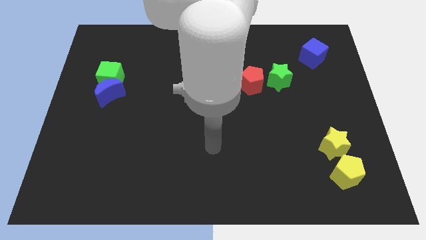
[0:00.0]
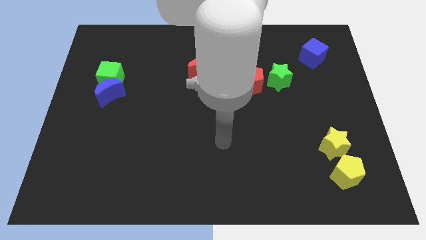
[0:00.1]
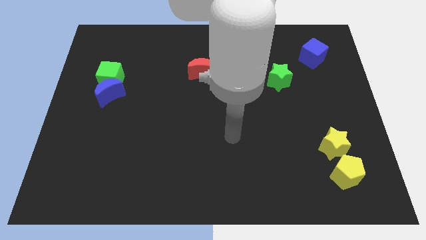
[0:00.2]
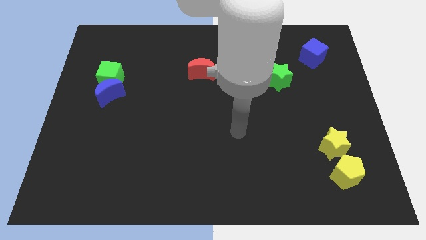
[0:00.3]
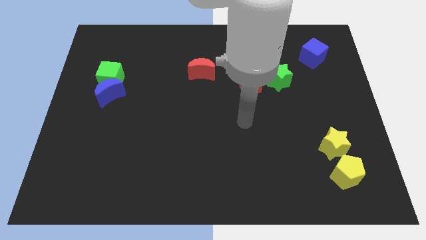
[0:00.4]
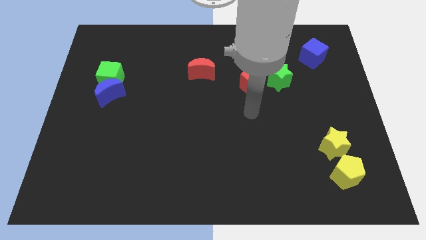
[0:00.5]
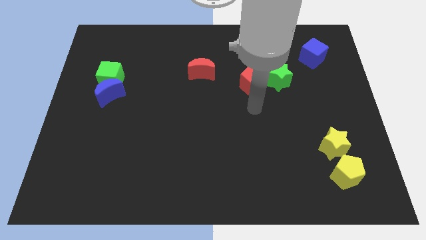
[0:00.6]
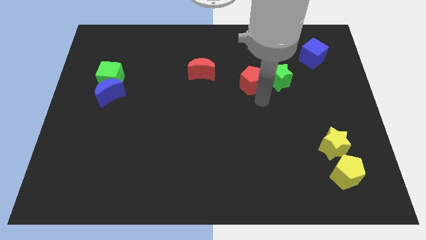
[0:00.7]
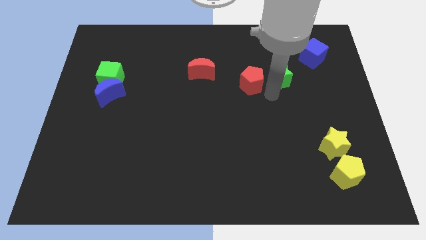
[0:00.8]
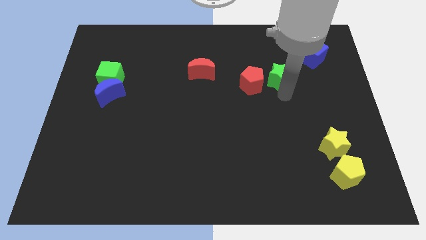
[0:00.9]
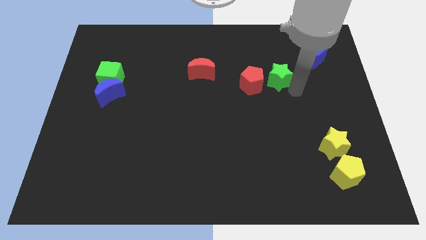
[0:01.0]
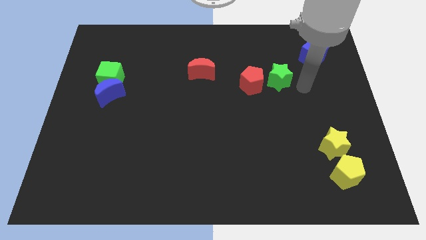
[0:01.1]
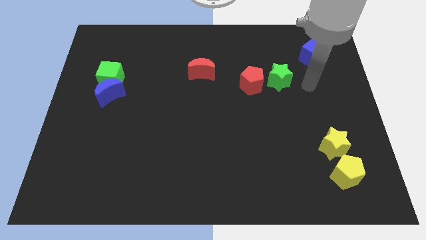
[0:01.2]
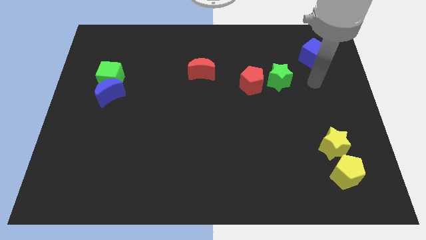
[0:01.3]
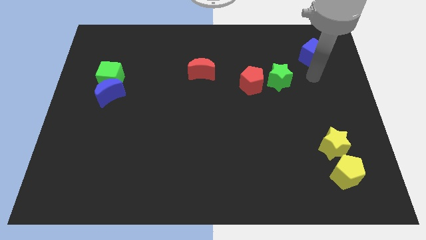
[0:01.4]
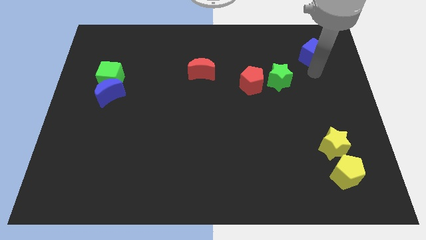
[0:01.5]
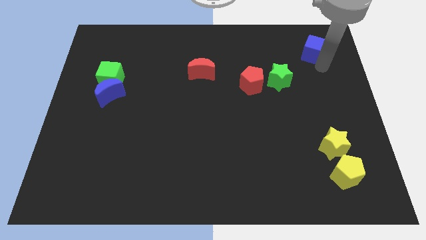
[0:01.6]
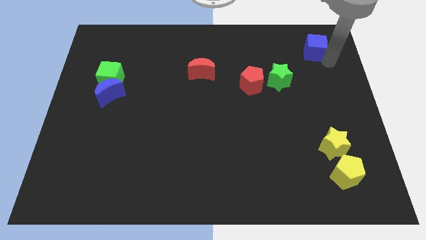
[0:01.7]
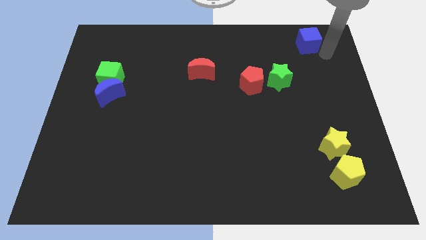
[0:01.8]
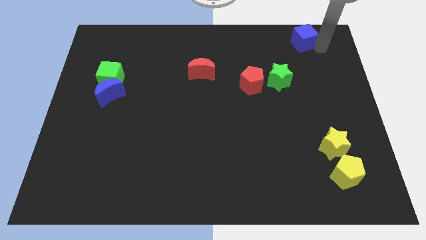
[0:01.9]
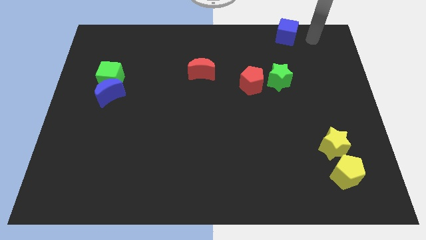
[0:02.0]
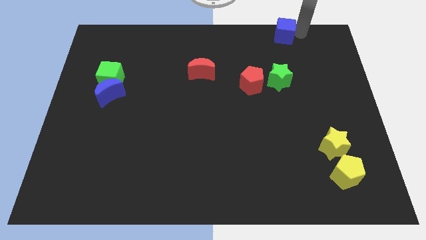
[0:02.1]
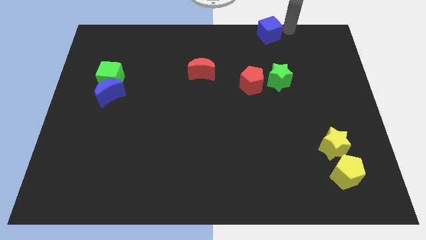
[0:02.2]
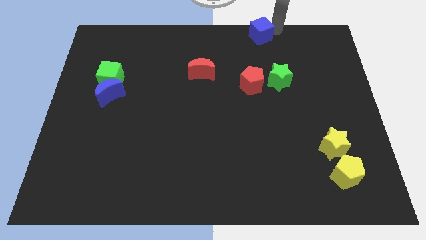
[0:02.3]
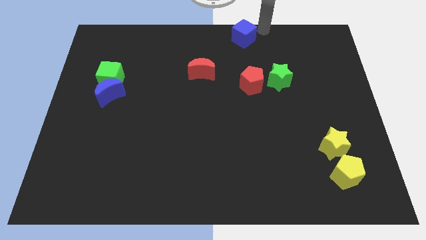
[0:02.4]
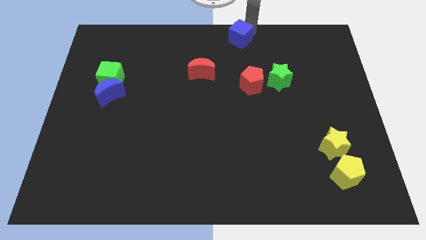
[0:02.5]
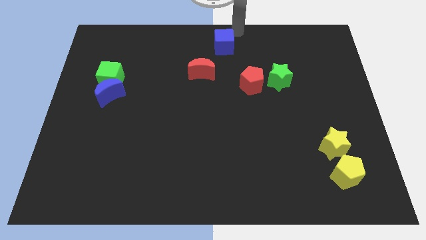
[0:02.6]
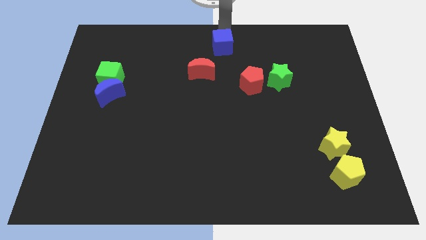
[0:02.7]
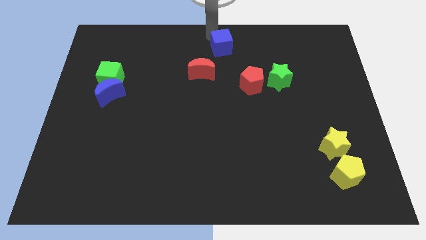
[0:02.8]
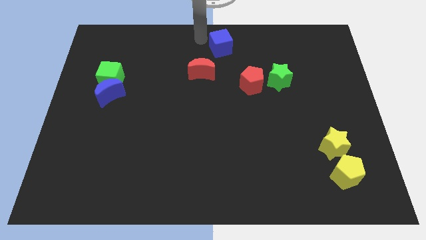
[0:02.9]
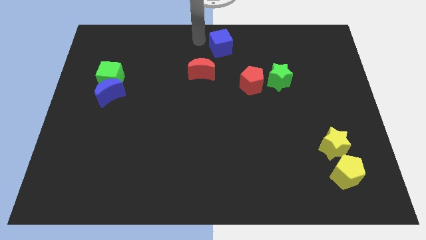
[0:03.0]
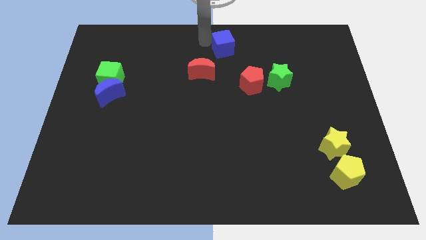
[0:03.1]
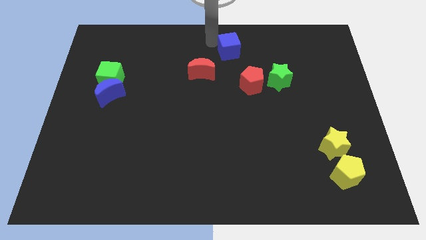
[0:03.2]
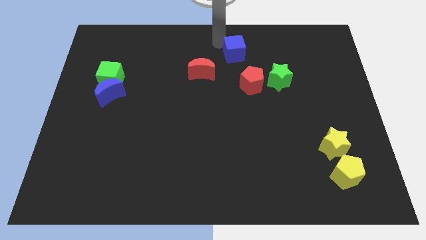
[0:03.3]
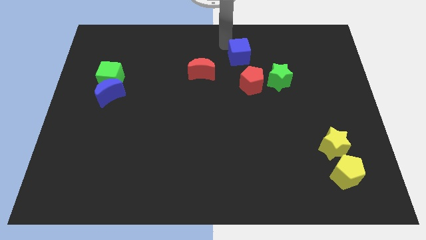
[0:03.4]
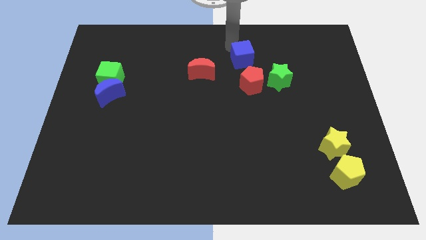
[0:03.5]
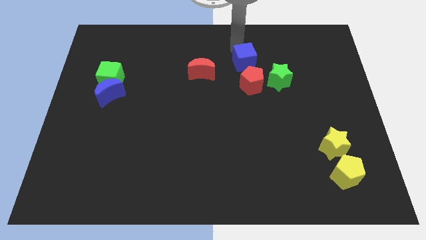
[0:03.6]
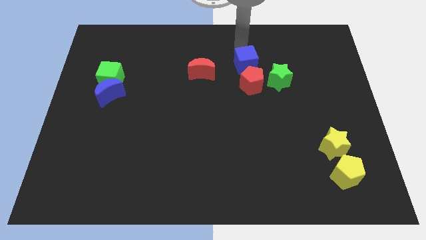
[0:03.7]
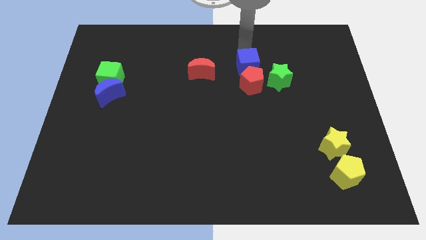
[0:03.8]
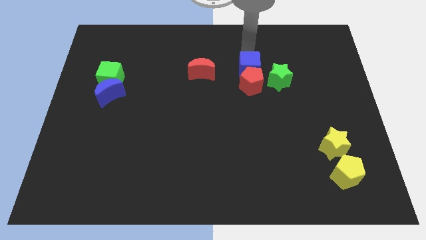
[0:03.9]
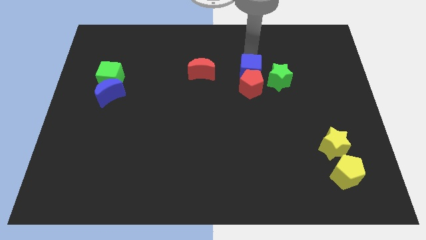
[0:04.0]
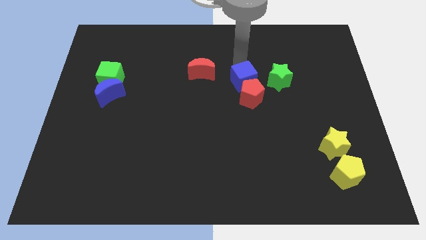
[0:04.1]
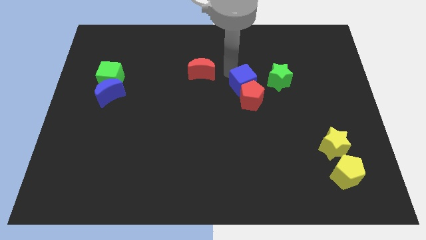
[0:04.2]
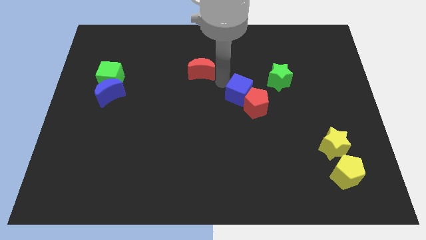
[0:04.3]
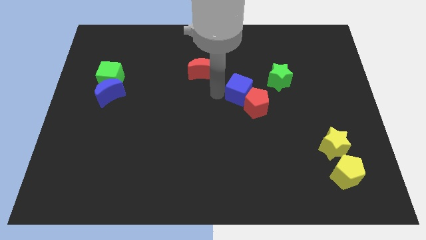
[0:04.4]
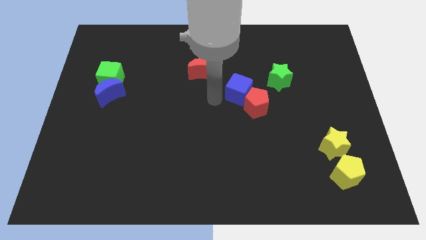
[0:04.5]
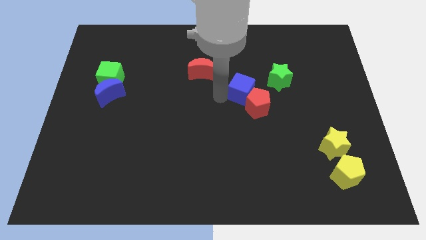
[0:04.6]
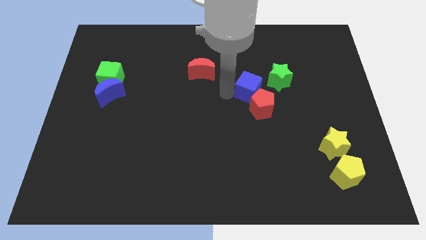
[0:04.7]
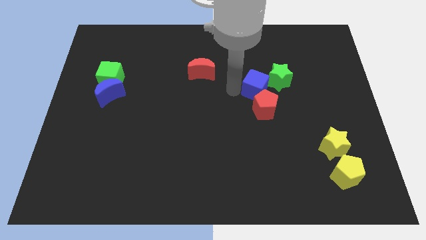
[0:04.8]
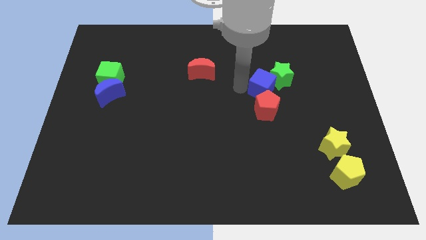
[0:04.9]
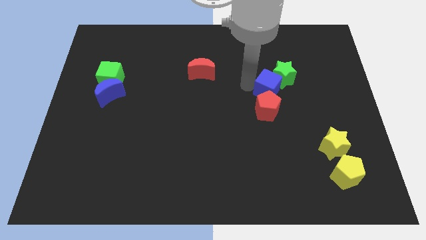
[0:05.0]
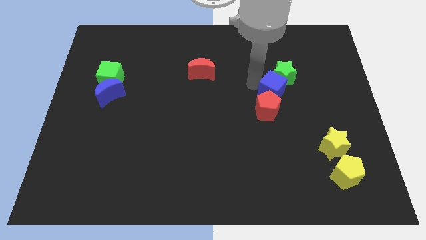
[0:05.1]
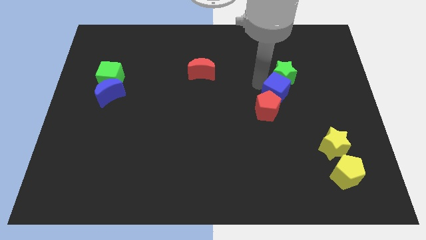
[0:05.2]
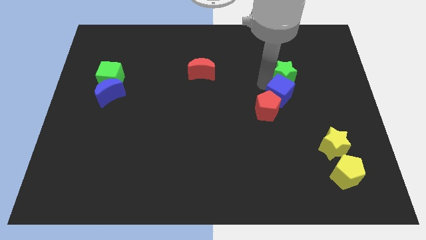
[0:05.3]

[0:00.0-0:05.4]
slightly move the blue cube down

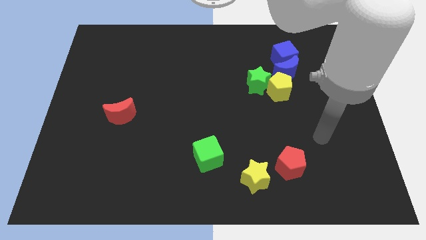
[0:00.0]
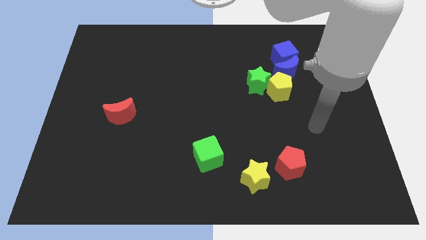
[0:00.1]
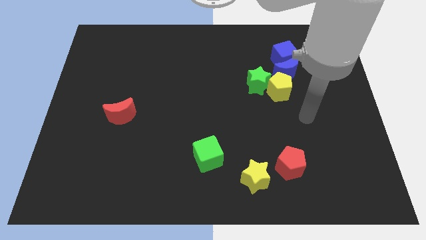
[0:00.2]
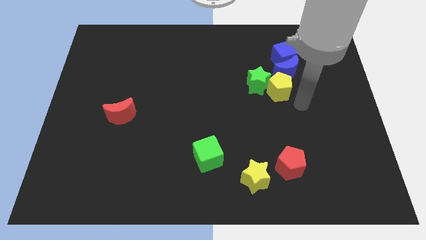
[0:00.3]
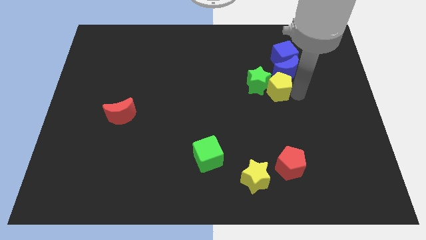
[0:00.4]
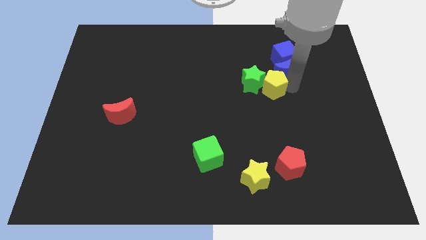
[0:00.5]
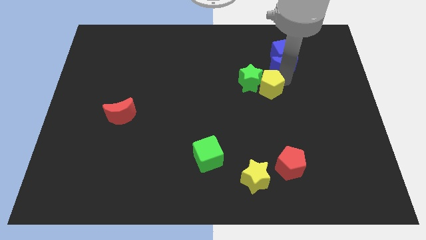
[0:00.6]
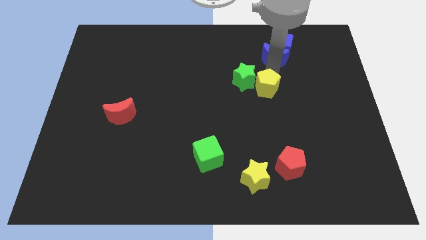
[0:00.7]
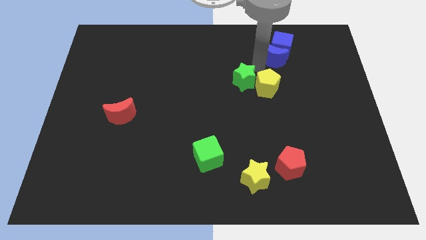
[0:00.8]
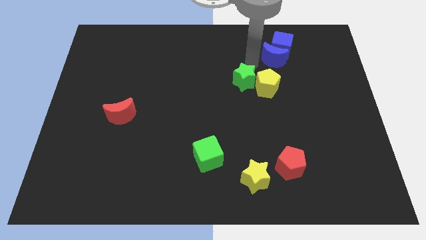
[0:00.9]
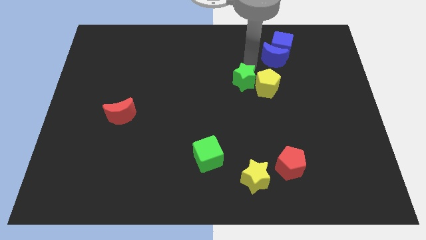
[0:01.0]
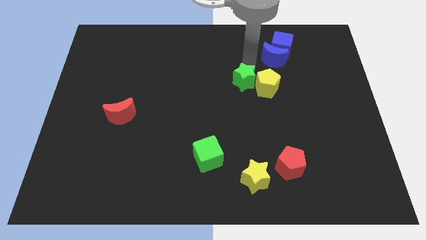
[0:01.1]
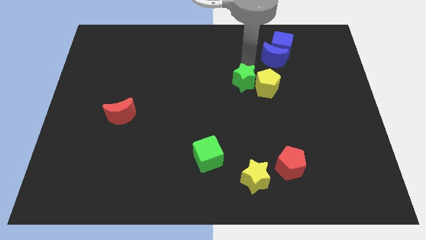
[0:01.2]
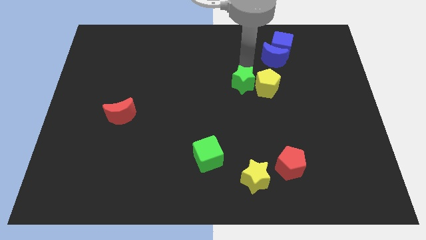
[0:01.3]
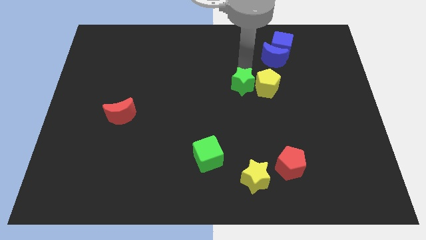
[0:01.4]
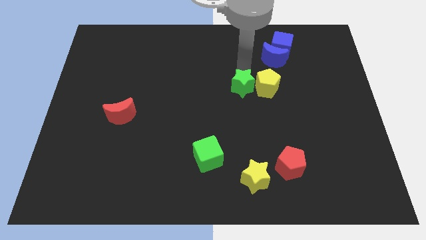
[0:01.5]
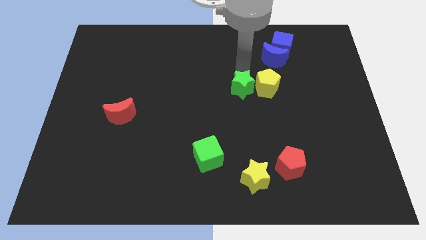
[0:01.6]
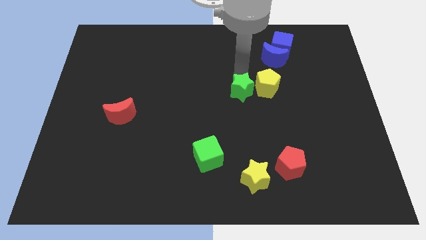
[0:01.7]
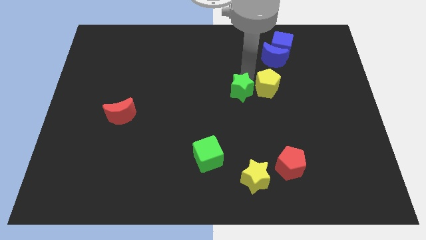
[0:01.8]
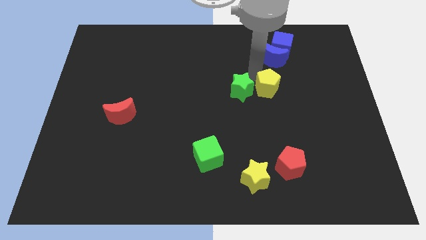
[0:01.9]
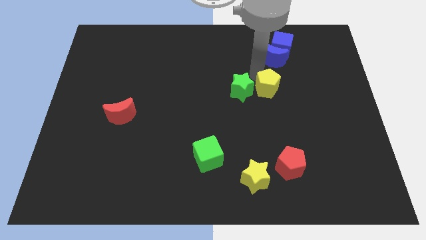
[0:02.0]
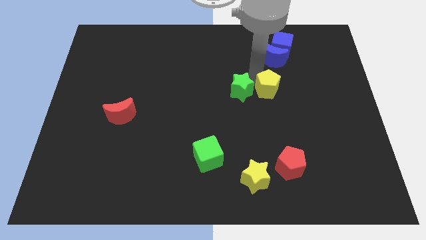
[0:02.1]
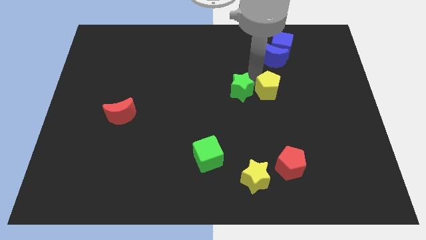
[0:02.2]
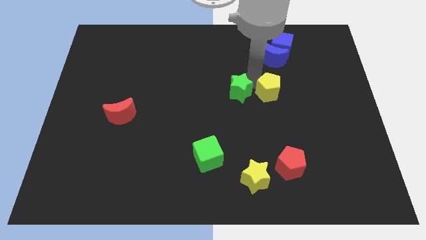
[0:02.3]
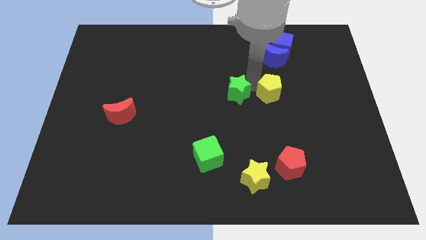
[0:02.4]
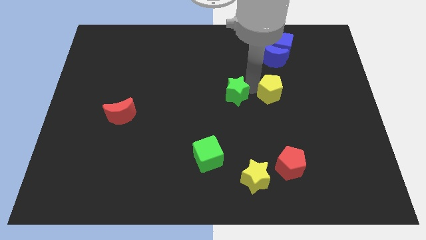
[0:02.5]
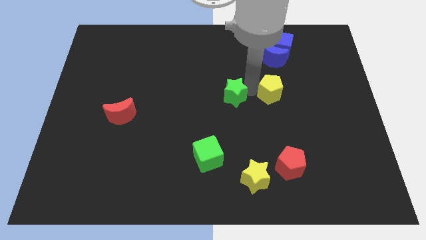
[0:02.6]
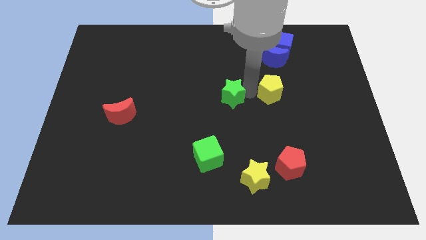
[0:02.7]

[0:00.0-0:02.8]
move the green star downwards and to the left slightly
